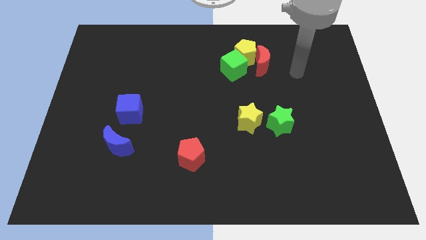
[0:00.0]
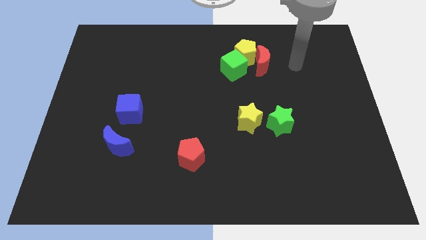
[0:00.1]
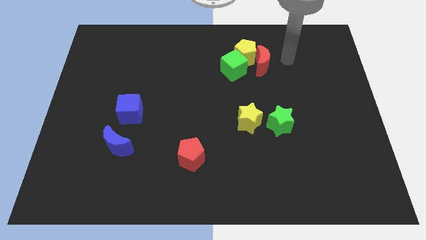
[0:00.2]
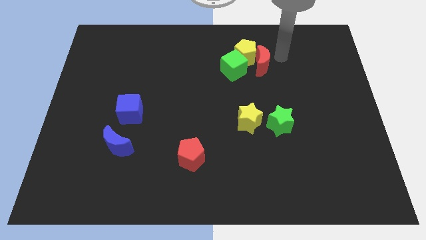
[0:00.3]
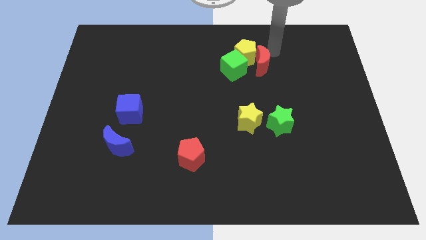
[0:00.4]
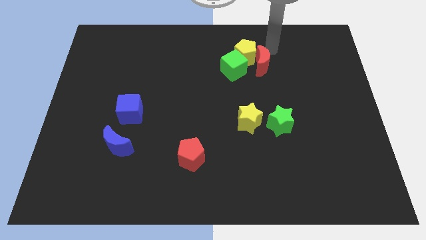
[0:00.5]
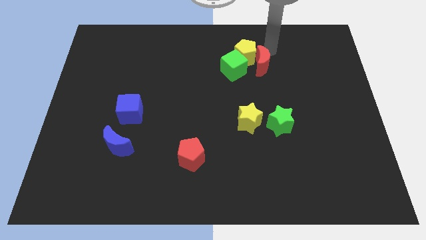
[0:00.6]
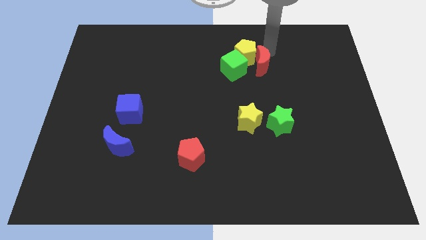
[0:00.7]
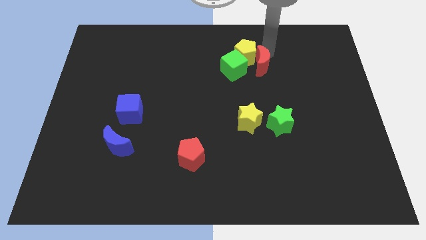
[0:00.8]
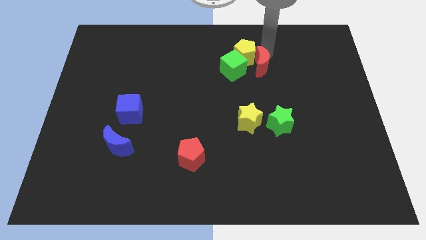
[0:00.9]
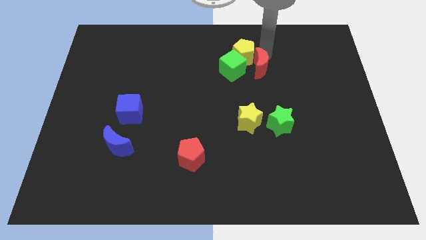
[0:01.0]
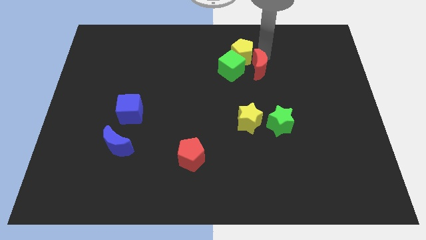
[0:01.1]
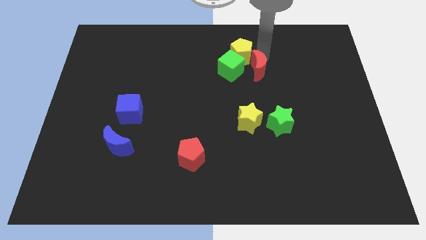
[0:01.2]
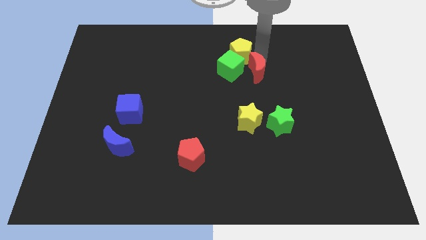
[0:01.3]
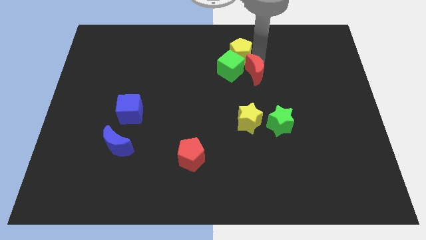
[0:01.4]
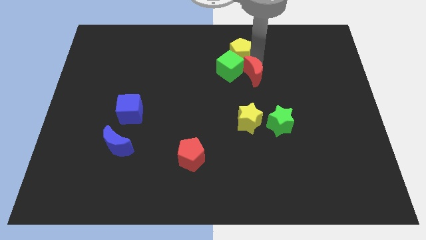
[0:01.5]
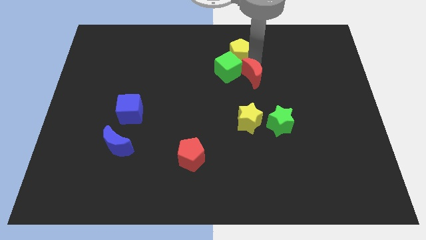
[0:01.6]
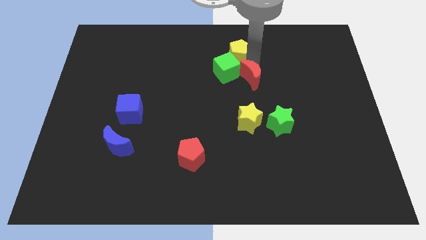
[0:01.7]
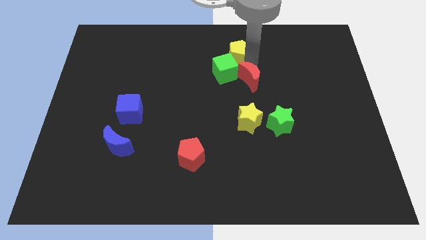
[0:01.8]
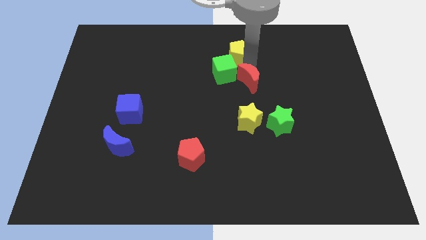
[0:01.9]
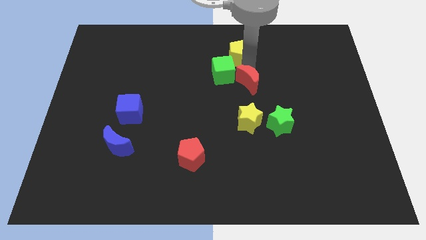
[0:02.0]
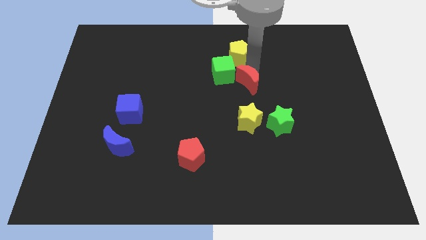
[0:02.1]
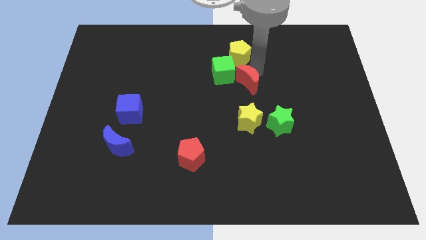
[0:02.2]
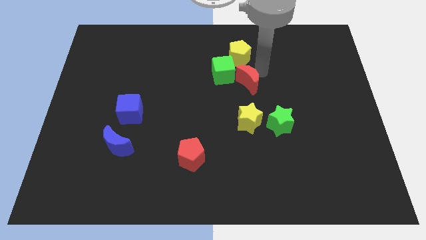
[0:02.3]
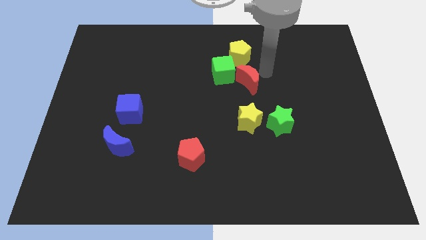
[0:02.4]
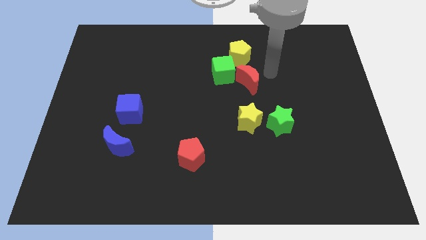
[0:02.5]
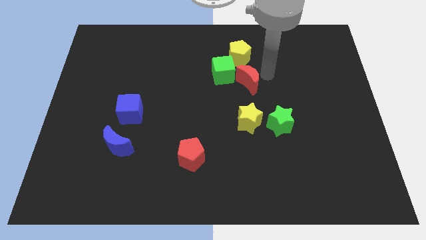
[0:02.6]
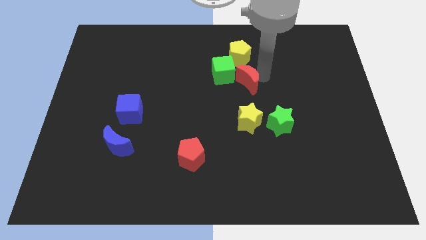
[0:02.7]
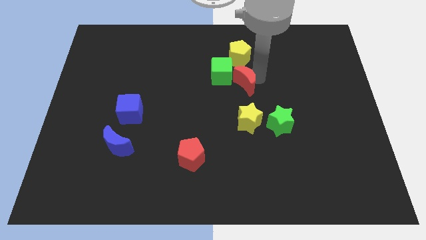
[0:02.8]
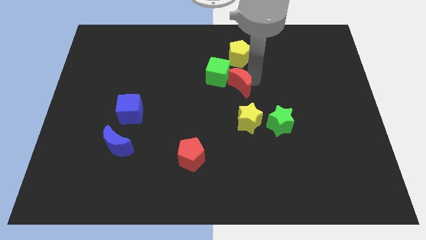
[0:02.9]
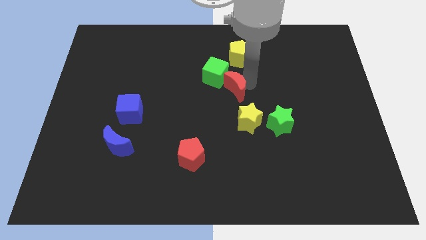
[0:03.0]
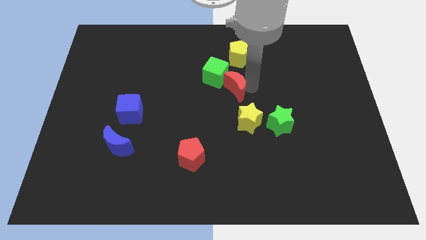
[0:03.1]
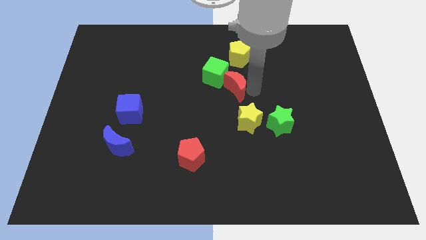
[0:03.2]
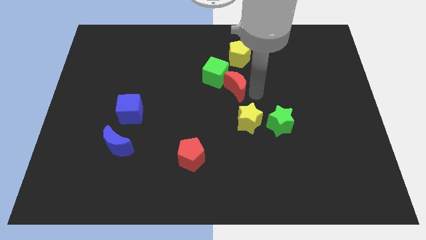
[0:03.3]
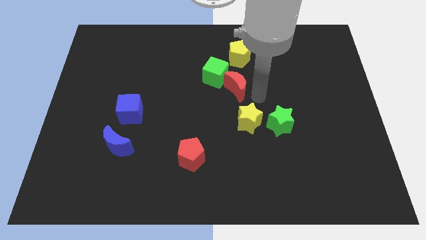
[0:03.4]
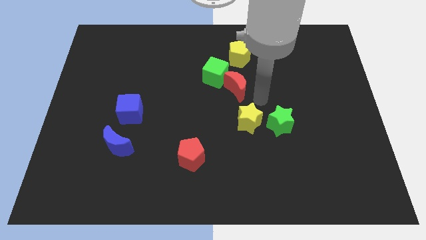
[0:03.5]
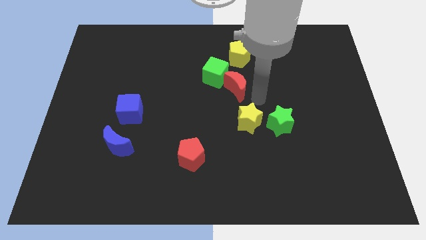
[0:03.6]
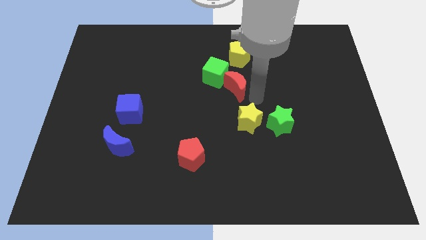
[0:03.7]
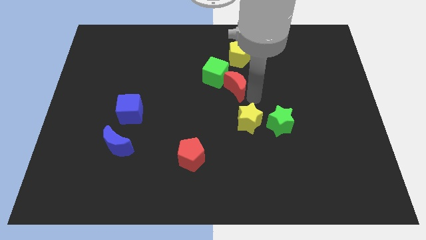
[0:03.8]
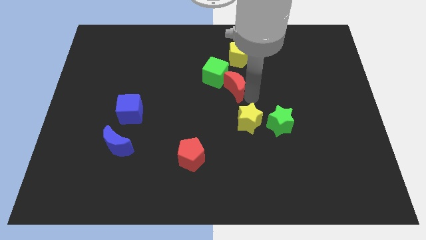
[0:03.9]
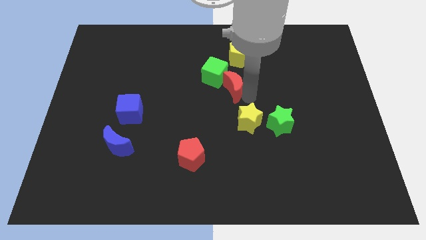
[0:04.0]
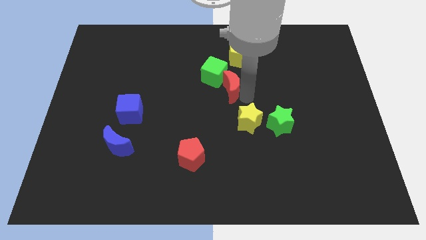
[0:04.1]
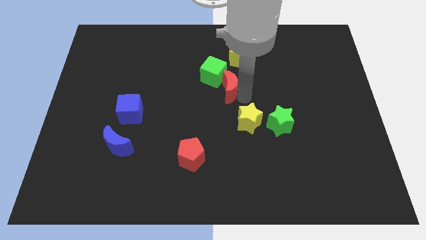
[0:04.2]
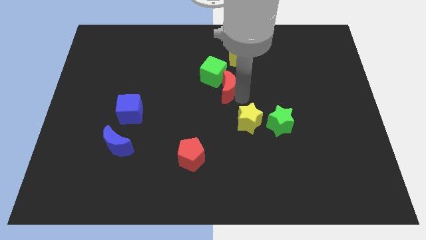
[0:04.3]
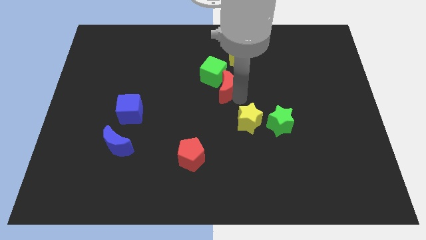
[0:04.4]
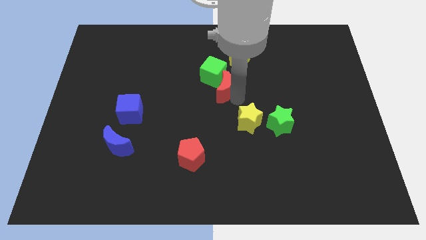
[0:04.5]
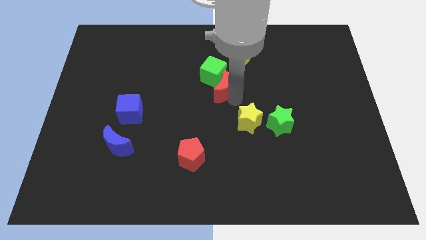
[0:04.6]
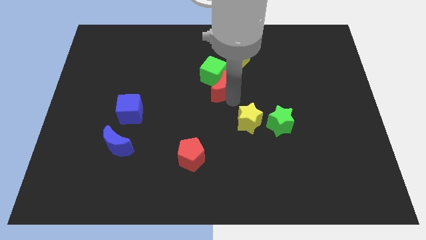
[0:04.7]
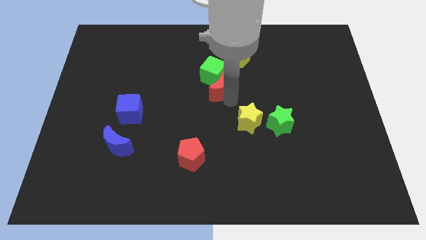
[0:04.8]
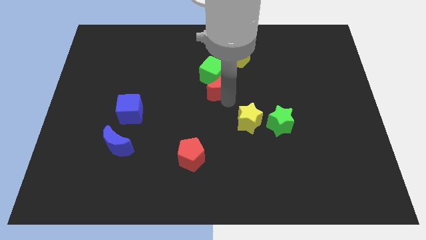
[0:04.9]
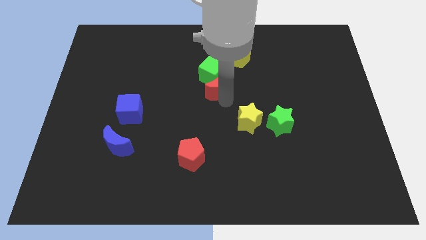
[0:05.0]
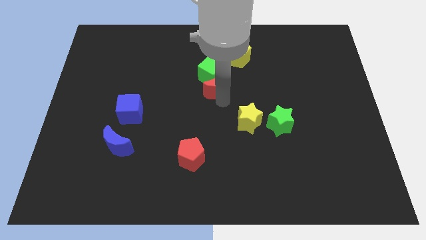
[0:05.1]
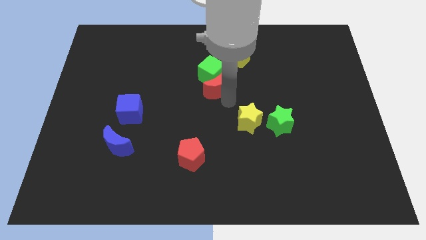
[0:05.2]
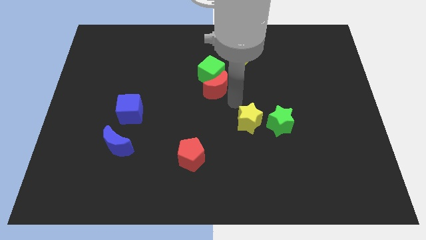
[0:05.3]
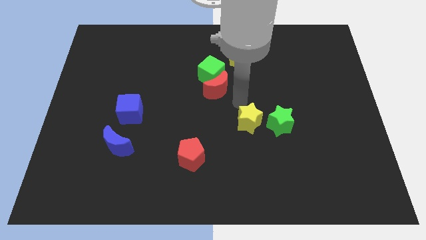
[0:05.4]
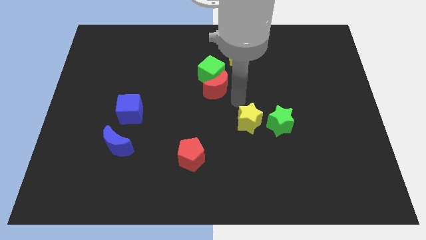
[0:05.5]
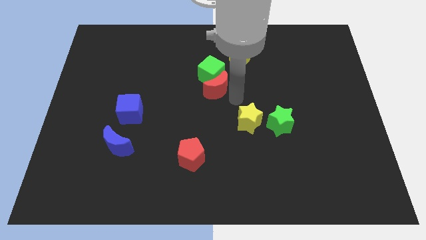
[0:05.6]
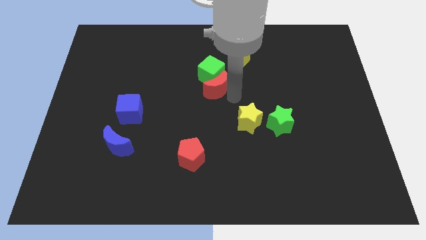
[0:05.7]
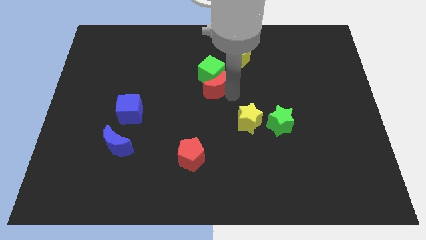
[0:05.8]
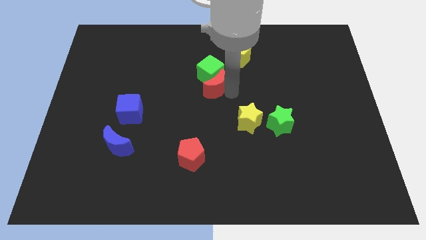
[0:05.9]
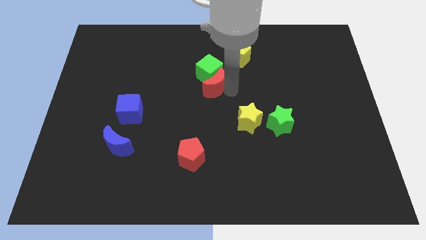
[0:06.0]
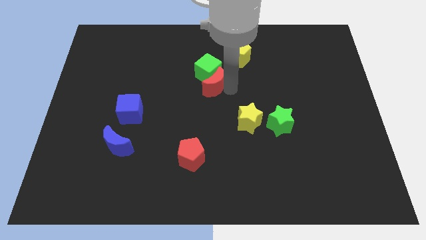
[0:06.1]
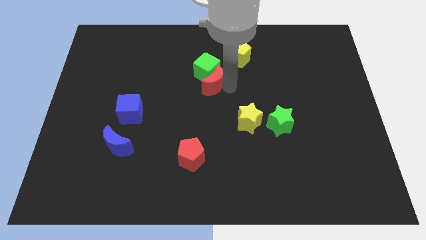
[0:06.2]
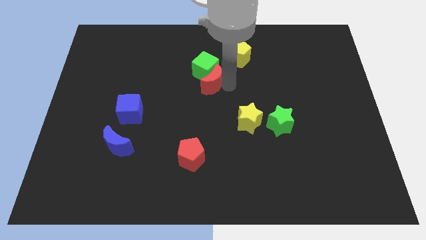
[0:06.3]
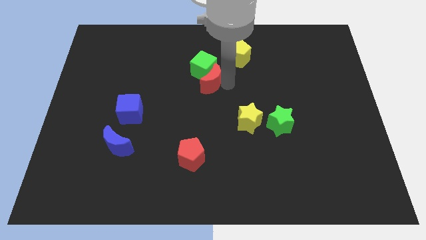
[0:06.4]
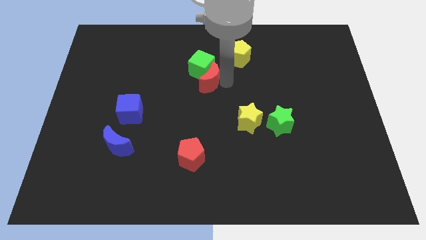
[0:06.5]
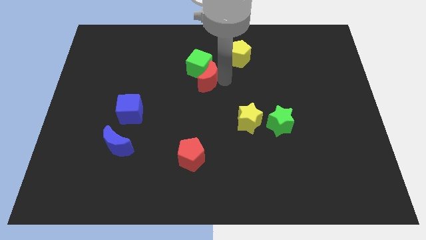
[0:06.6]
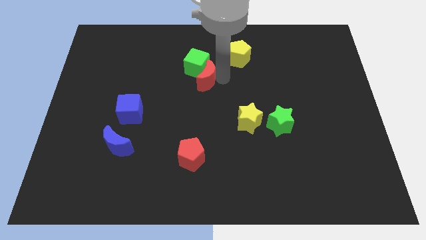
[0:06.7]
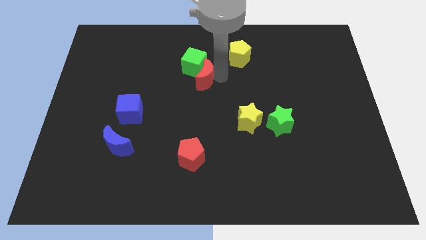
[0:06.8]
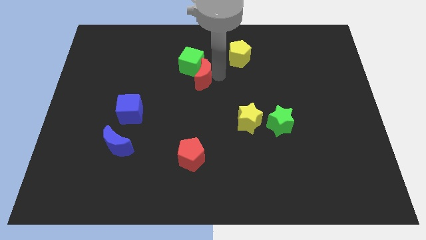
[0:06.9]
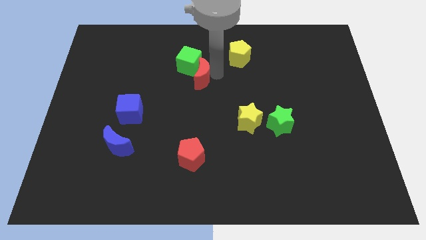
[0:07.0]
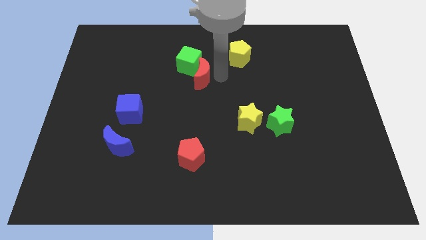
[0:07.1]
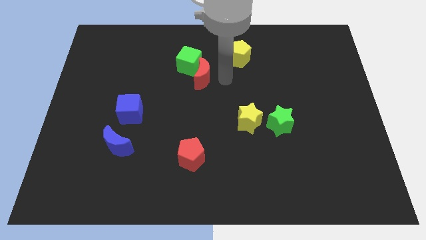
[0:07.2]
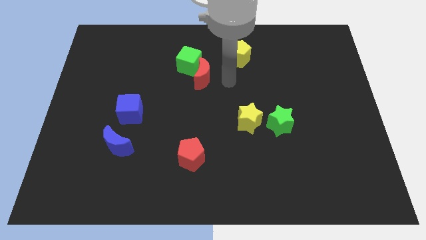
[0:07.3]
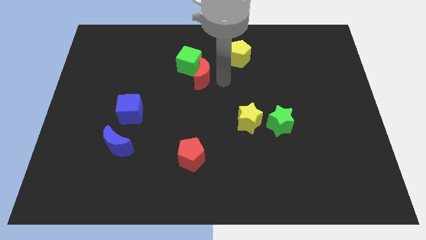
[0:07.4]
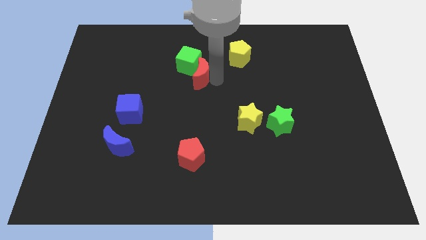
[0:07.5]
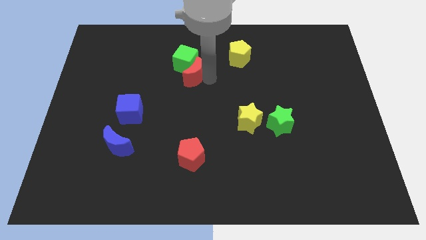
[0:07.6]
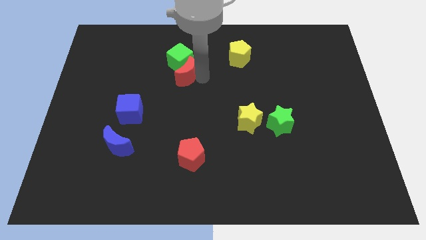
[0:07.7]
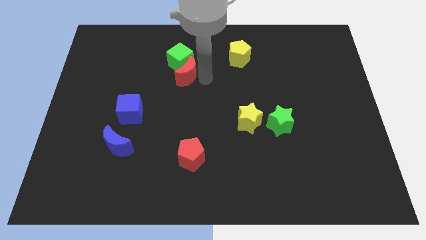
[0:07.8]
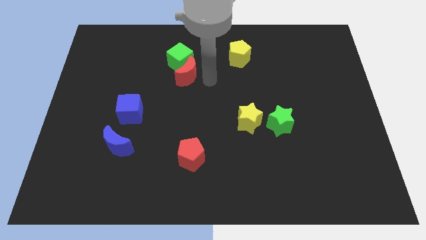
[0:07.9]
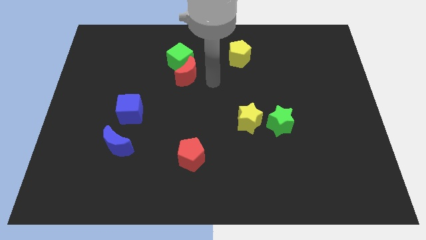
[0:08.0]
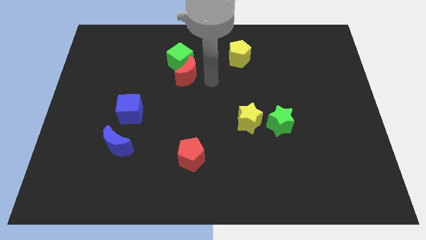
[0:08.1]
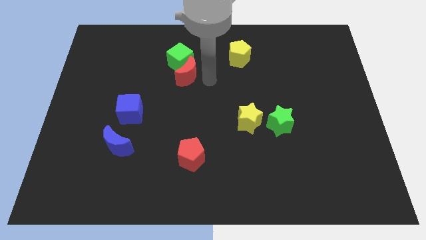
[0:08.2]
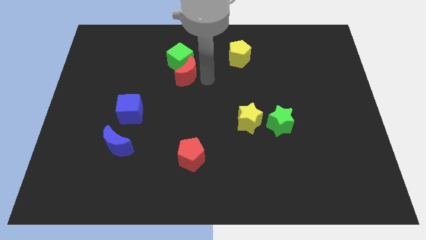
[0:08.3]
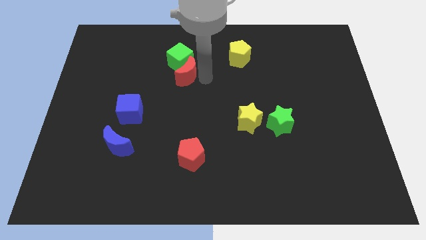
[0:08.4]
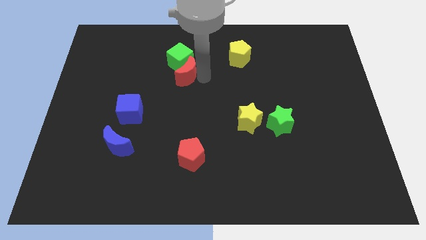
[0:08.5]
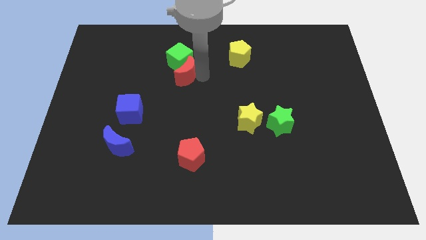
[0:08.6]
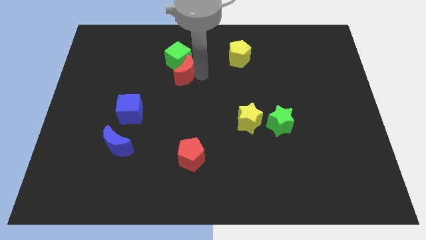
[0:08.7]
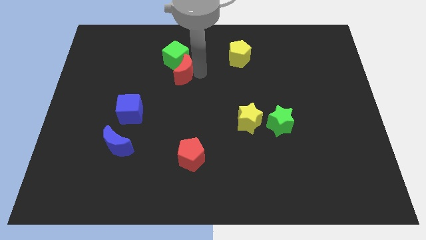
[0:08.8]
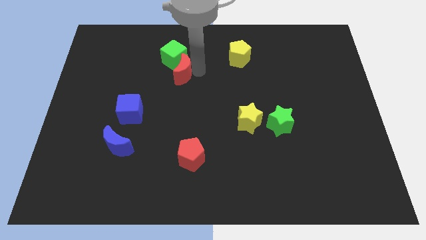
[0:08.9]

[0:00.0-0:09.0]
push the red moon to the left
